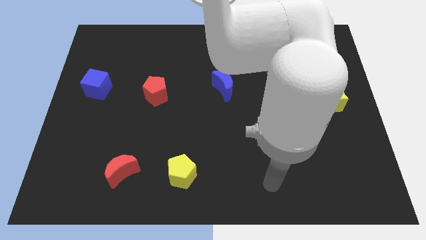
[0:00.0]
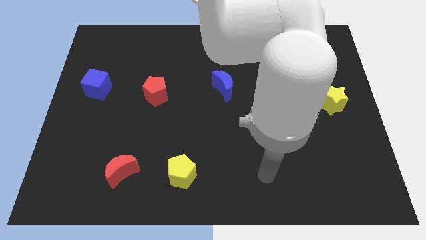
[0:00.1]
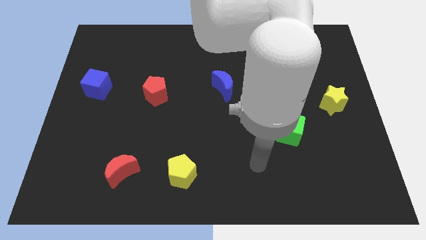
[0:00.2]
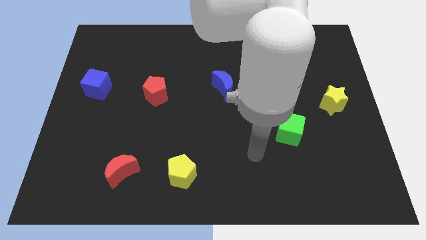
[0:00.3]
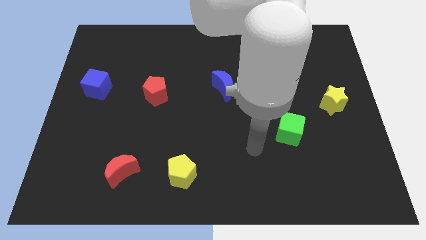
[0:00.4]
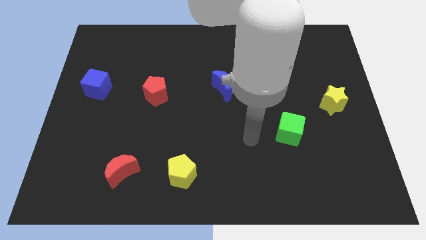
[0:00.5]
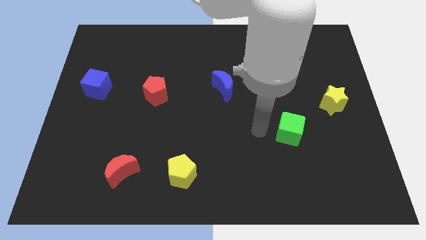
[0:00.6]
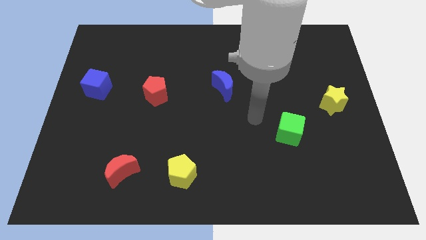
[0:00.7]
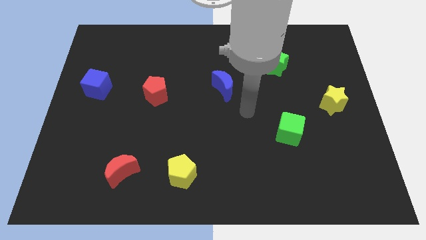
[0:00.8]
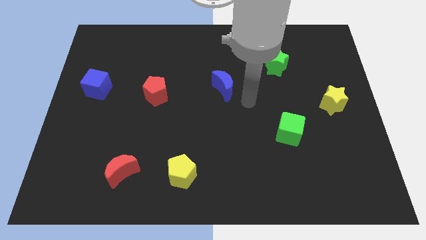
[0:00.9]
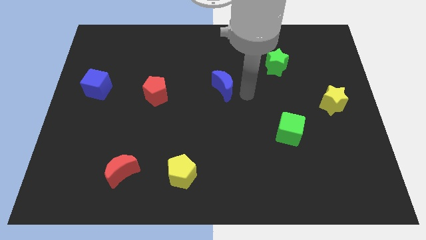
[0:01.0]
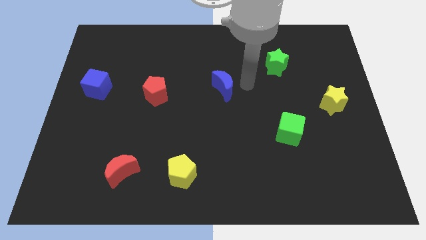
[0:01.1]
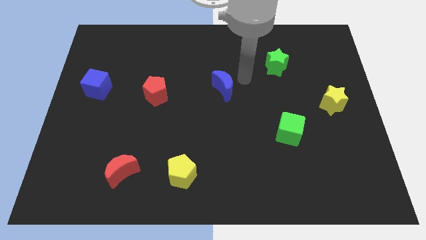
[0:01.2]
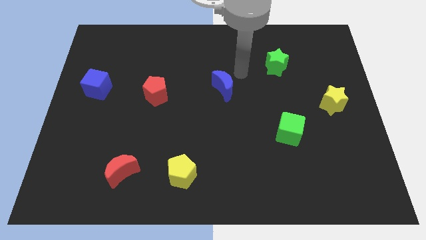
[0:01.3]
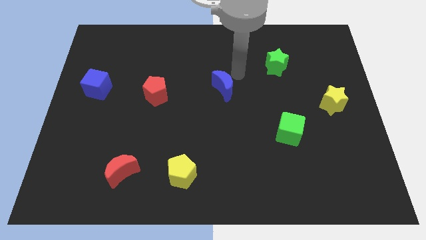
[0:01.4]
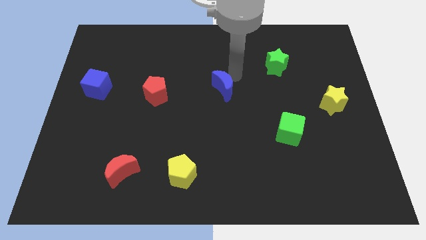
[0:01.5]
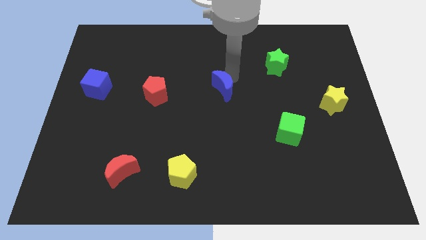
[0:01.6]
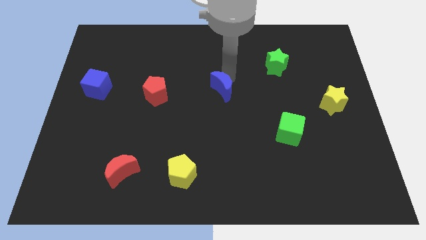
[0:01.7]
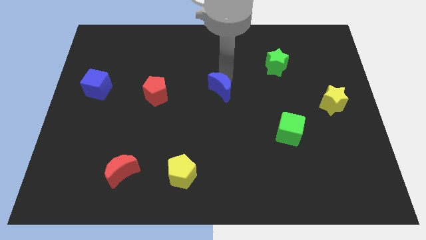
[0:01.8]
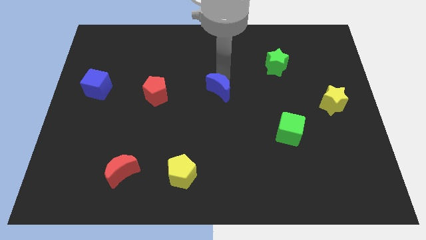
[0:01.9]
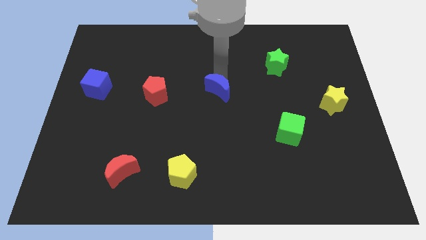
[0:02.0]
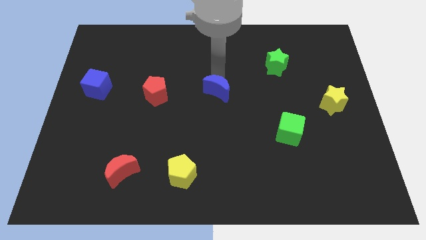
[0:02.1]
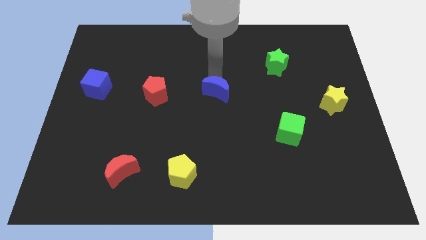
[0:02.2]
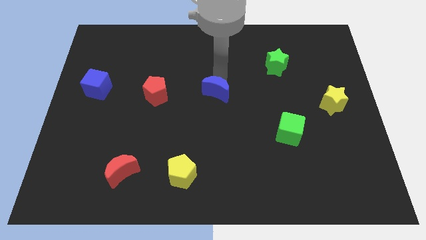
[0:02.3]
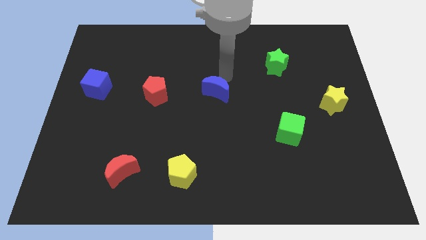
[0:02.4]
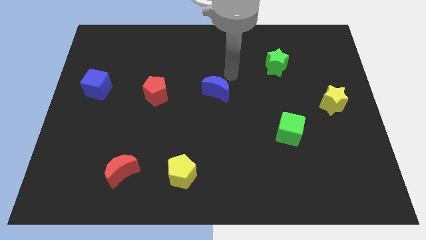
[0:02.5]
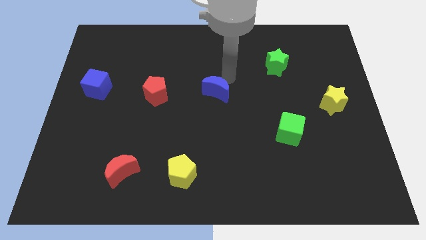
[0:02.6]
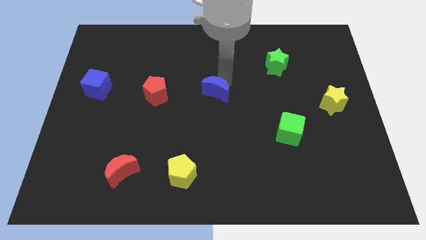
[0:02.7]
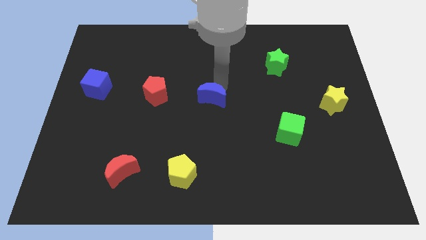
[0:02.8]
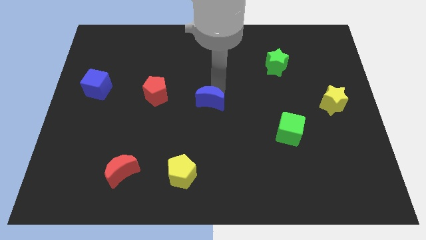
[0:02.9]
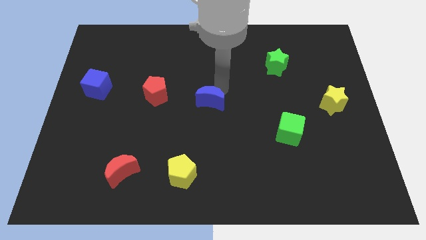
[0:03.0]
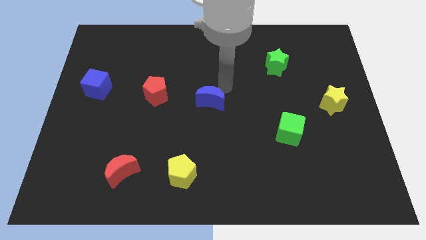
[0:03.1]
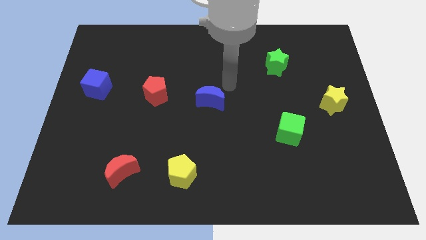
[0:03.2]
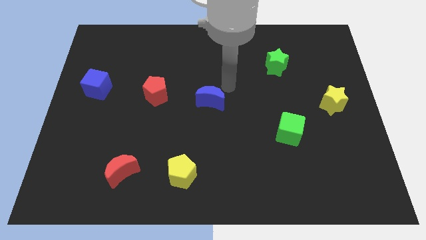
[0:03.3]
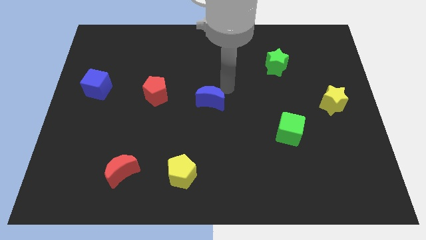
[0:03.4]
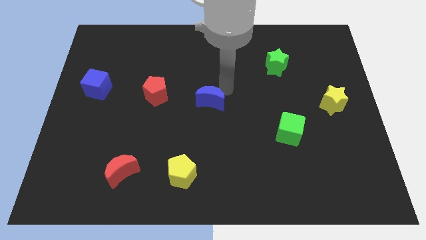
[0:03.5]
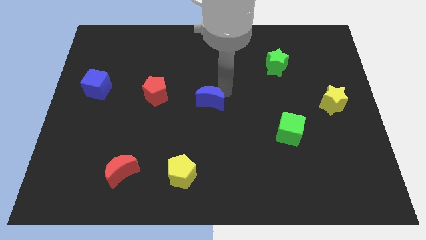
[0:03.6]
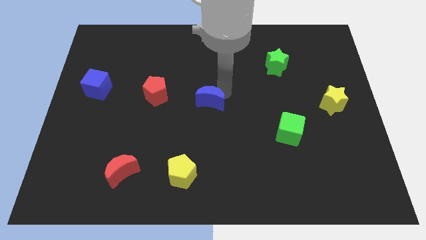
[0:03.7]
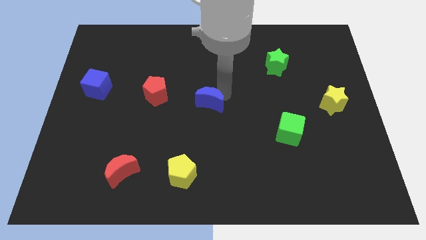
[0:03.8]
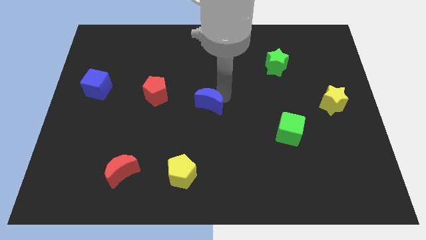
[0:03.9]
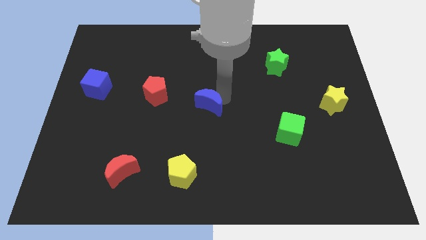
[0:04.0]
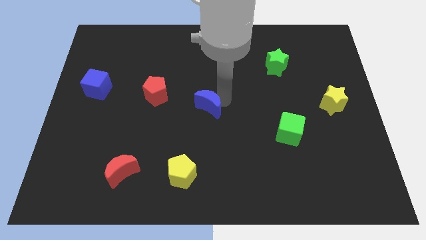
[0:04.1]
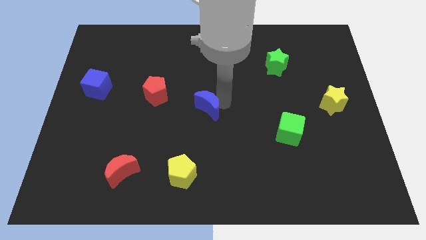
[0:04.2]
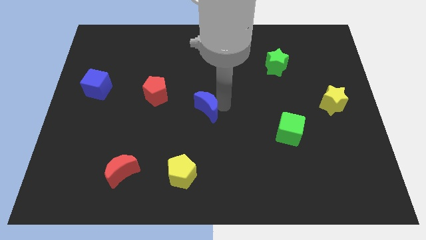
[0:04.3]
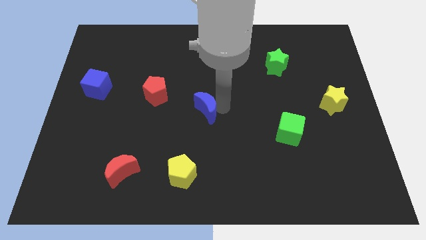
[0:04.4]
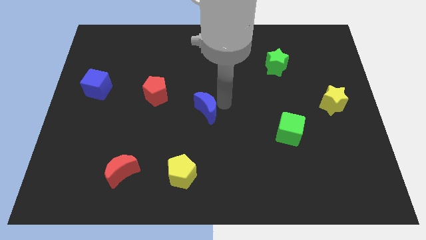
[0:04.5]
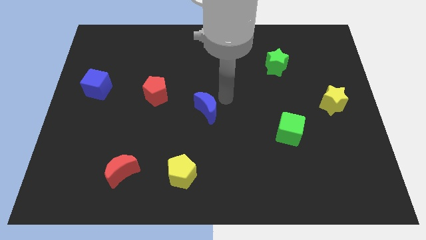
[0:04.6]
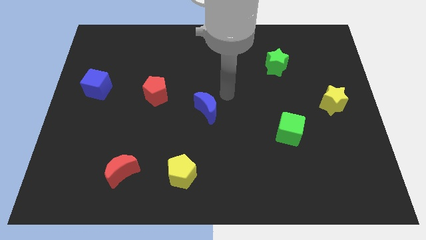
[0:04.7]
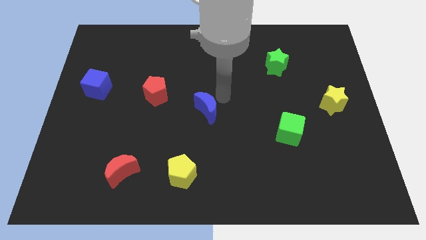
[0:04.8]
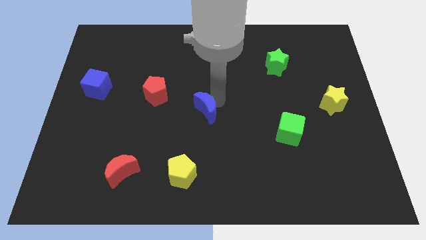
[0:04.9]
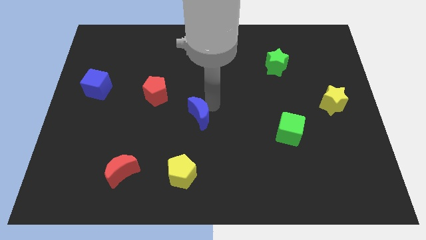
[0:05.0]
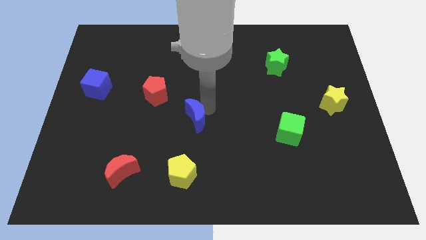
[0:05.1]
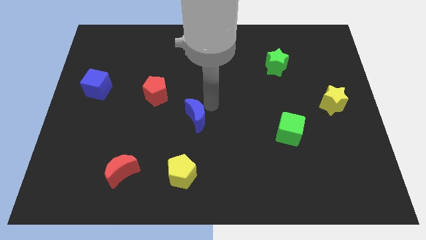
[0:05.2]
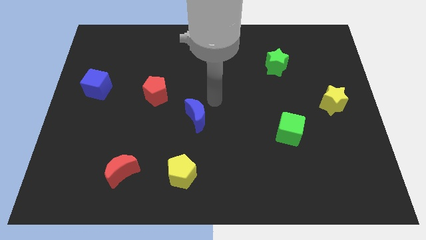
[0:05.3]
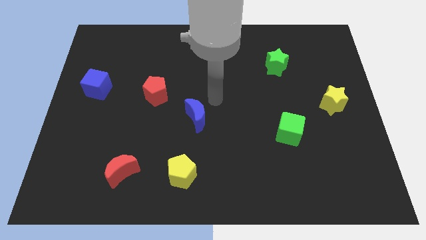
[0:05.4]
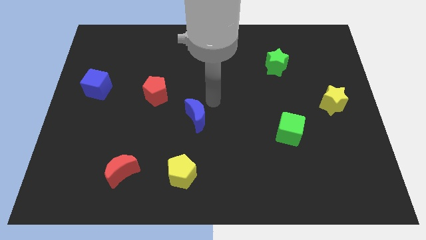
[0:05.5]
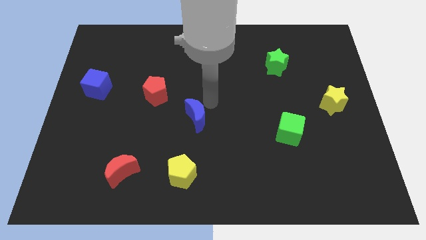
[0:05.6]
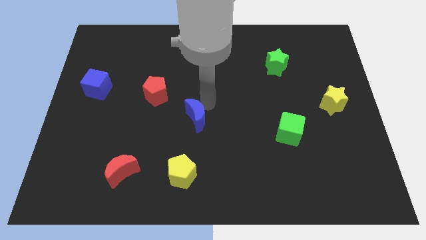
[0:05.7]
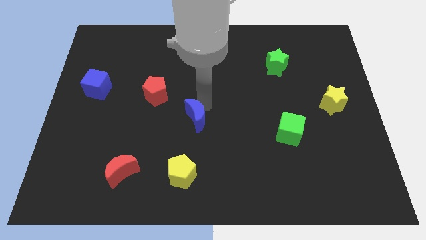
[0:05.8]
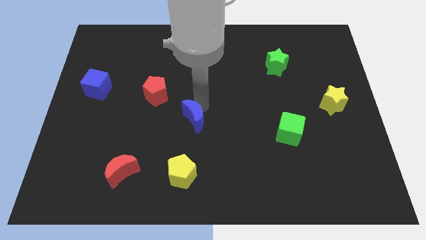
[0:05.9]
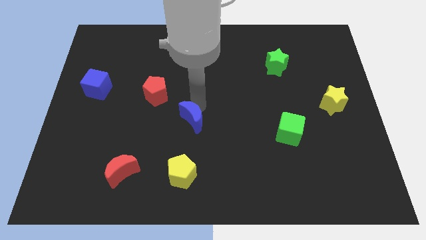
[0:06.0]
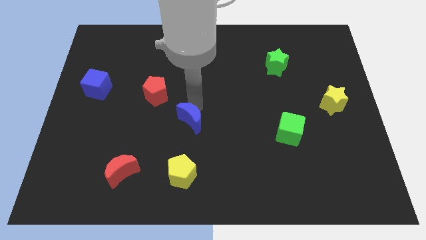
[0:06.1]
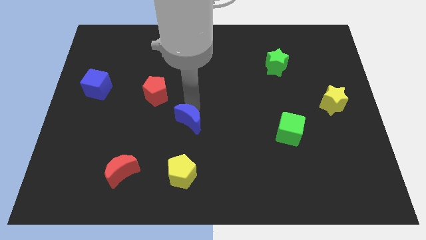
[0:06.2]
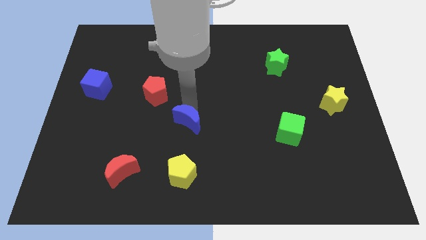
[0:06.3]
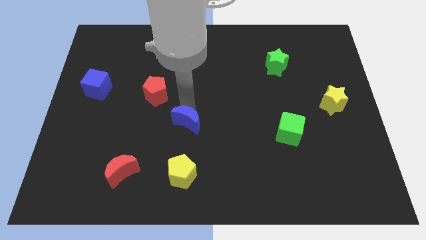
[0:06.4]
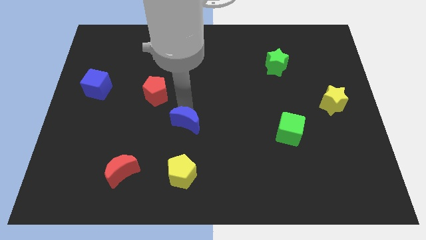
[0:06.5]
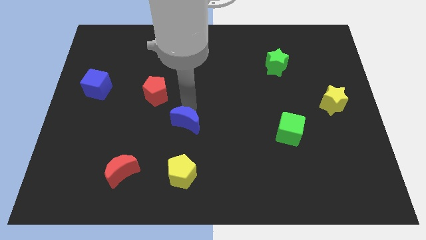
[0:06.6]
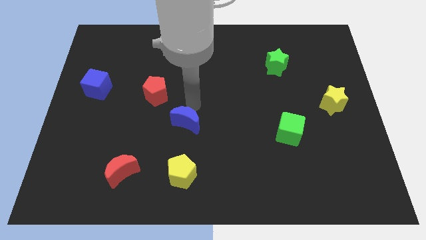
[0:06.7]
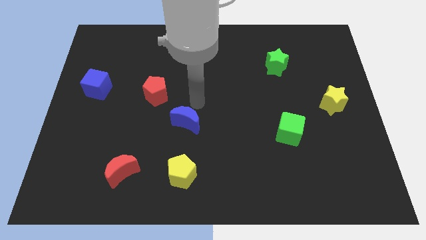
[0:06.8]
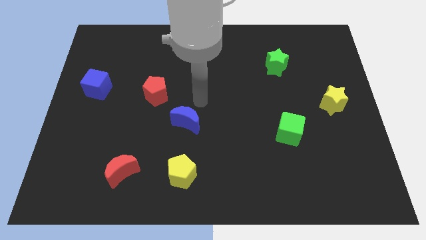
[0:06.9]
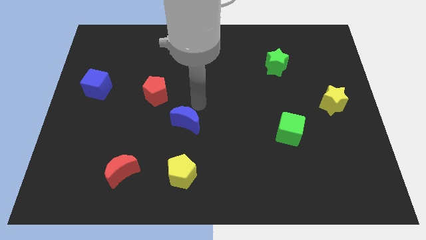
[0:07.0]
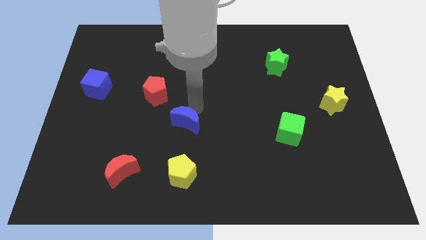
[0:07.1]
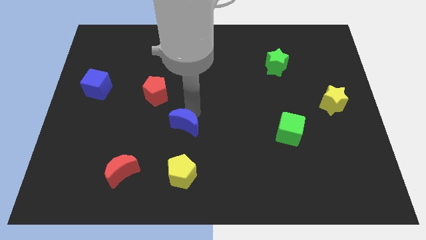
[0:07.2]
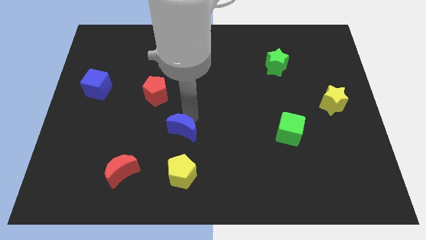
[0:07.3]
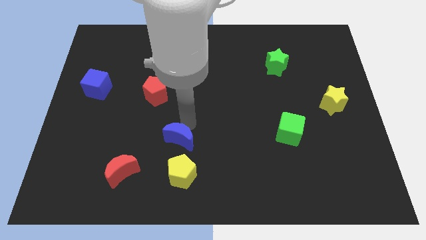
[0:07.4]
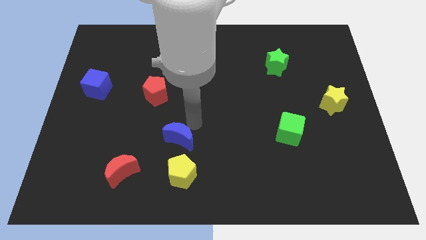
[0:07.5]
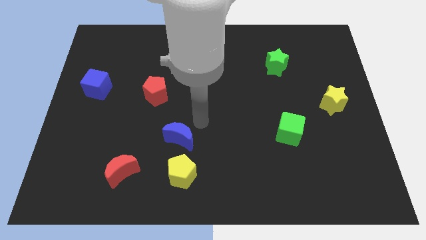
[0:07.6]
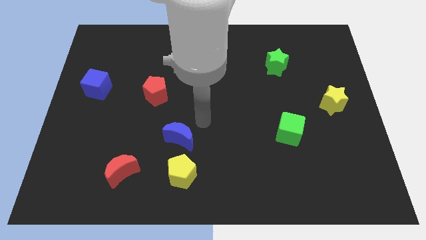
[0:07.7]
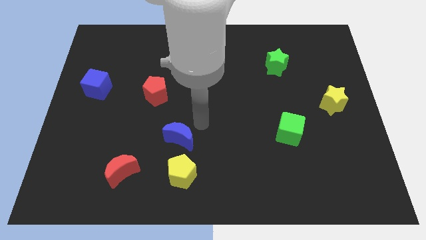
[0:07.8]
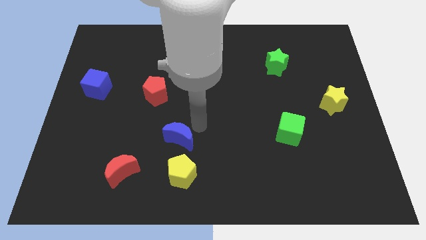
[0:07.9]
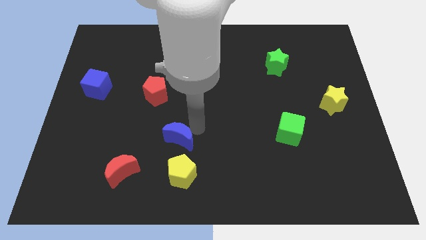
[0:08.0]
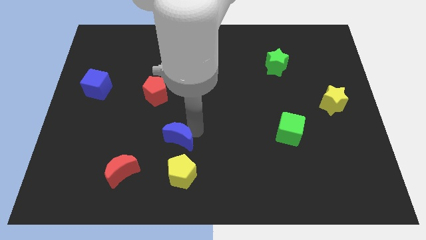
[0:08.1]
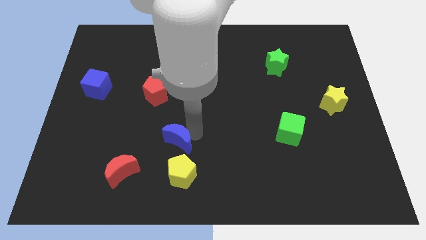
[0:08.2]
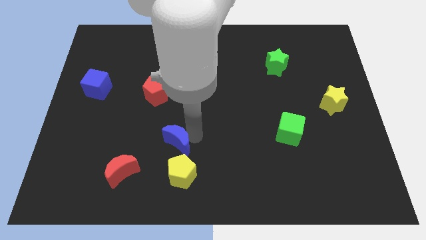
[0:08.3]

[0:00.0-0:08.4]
move the blue moon to the top left of the yellow pentagon
